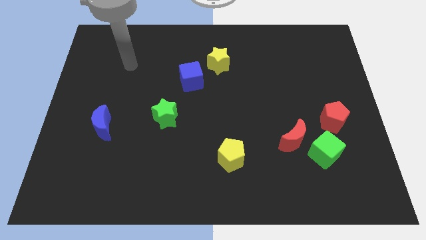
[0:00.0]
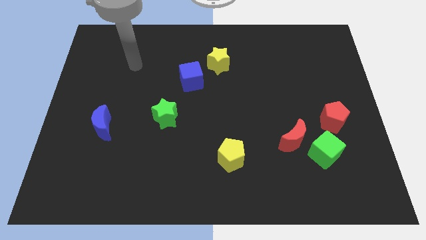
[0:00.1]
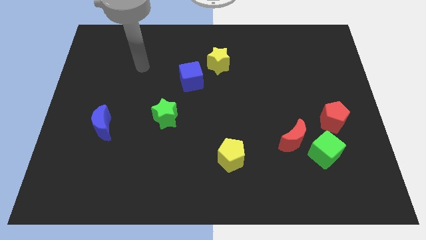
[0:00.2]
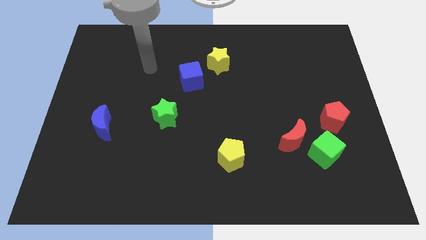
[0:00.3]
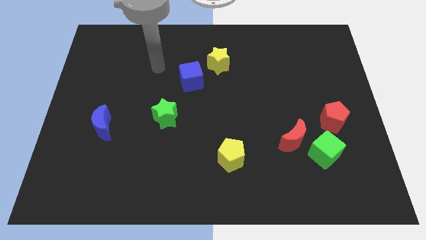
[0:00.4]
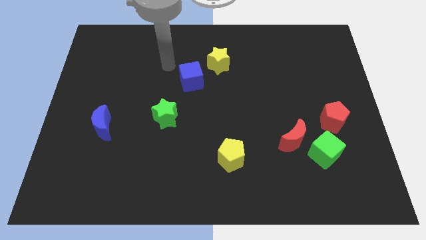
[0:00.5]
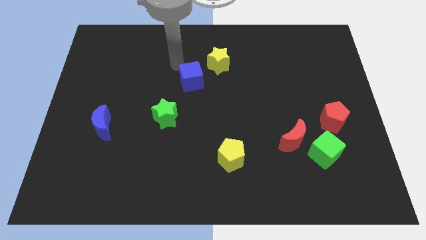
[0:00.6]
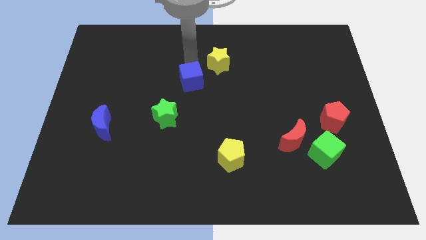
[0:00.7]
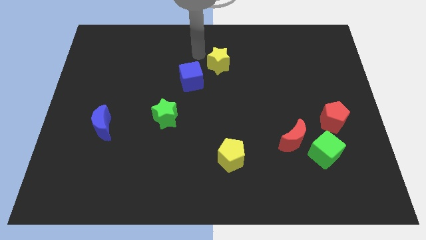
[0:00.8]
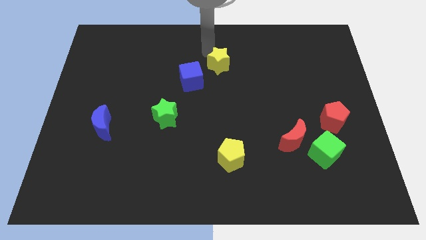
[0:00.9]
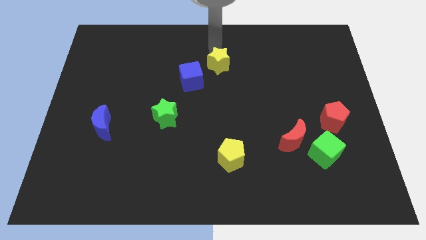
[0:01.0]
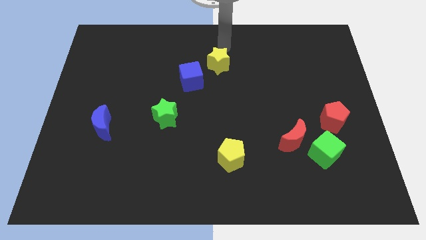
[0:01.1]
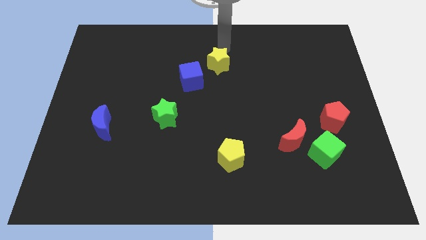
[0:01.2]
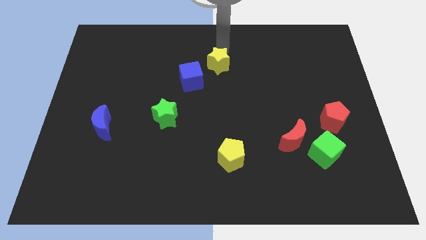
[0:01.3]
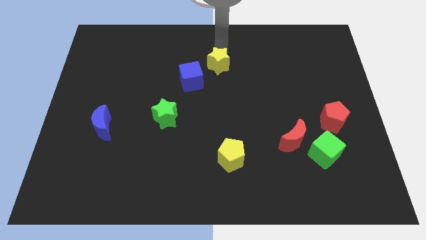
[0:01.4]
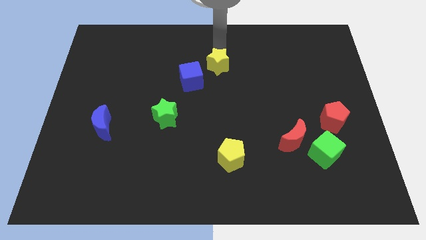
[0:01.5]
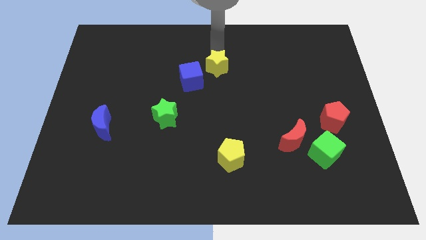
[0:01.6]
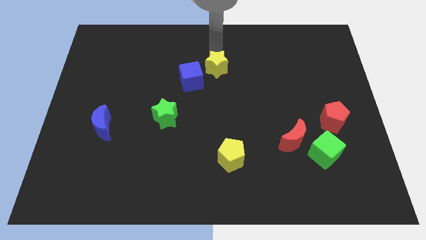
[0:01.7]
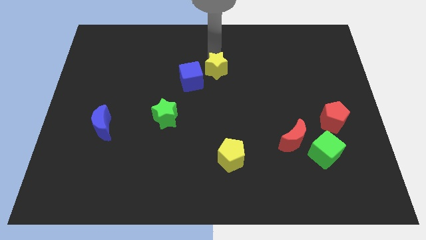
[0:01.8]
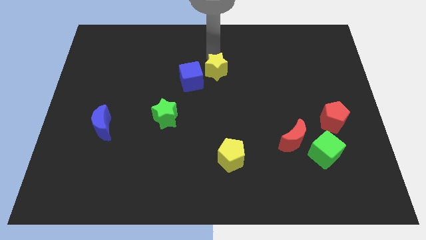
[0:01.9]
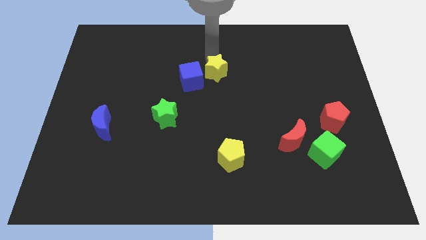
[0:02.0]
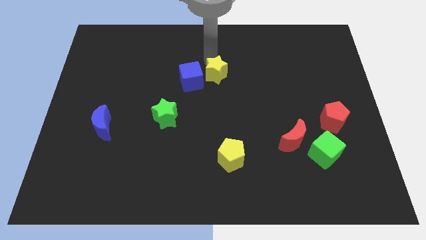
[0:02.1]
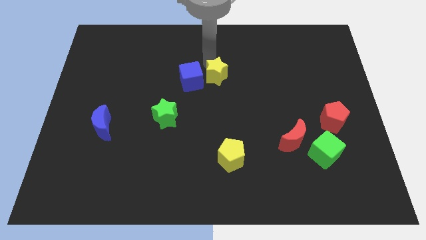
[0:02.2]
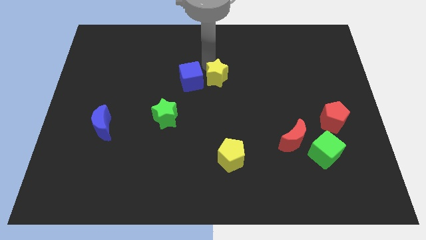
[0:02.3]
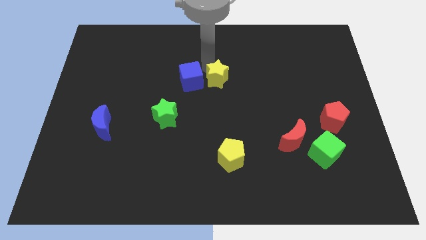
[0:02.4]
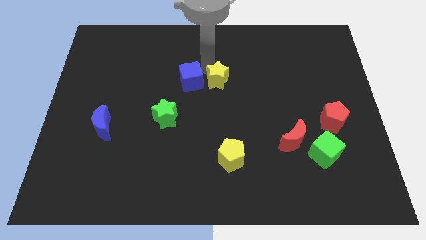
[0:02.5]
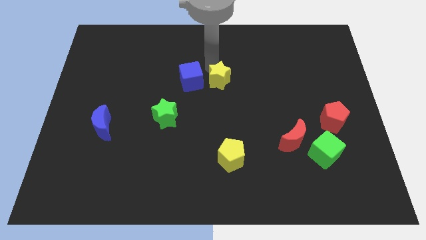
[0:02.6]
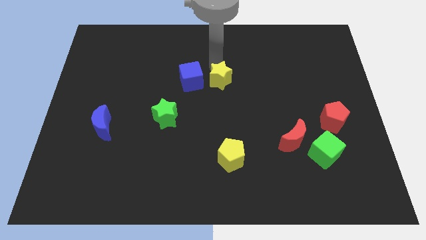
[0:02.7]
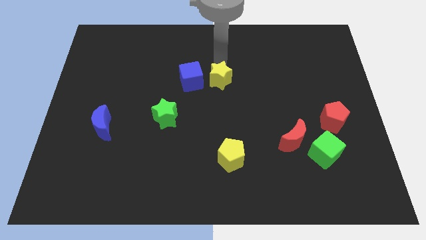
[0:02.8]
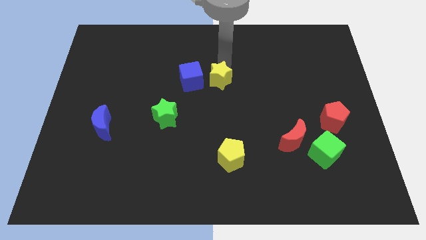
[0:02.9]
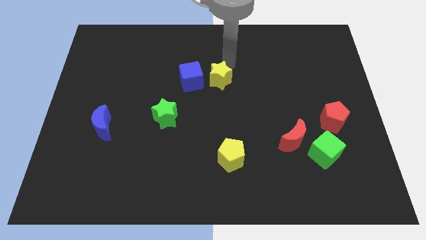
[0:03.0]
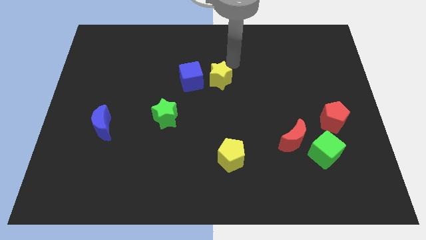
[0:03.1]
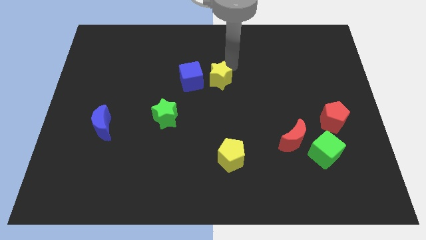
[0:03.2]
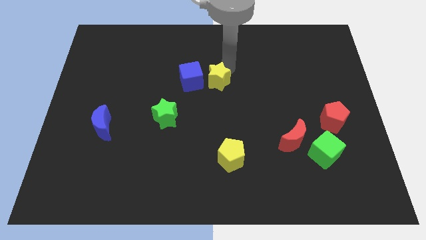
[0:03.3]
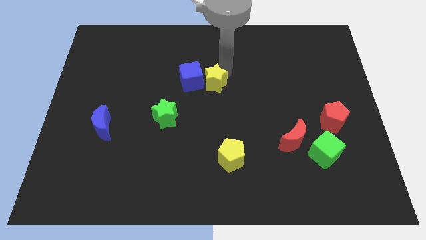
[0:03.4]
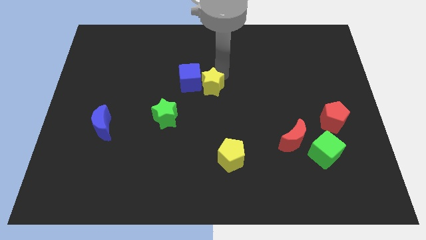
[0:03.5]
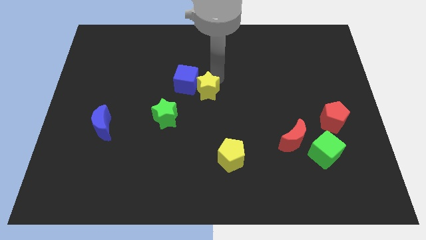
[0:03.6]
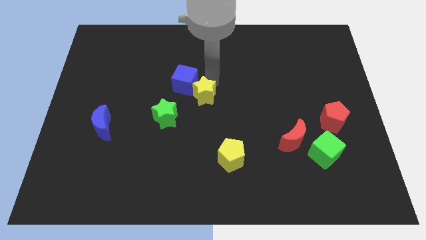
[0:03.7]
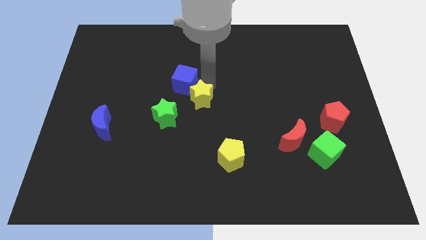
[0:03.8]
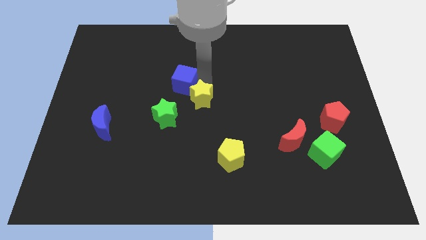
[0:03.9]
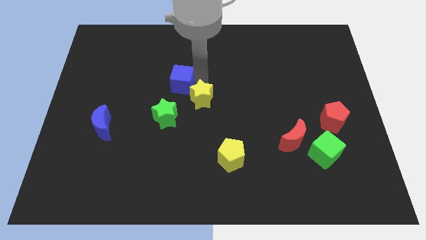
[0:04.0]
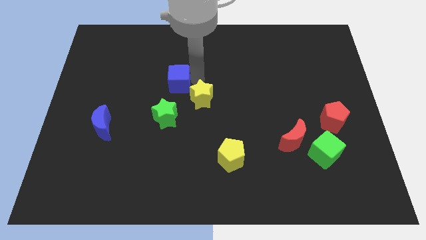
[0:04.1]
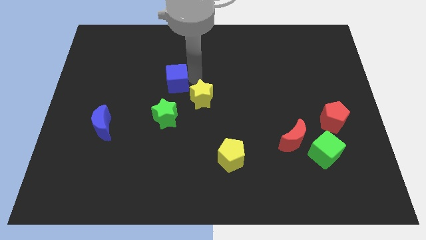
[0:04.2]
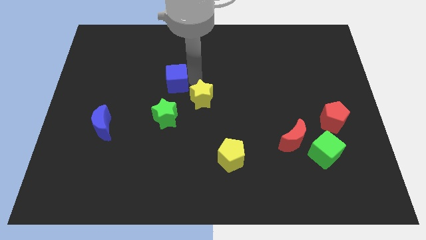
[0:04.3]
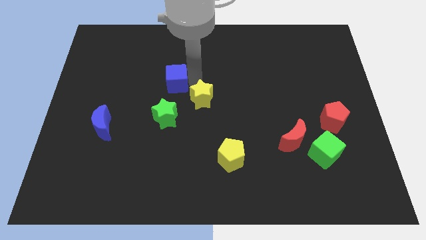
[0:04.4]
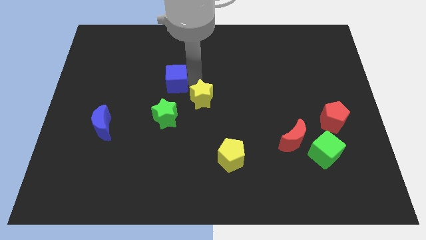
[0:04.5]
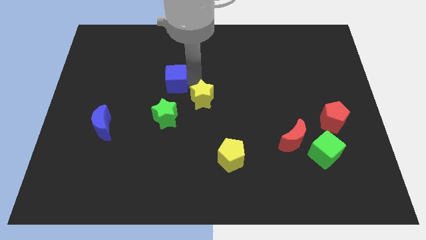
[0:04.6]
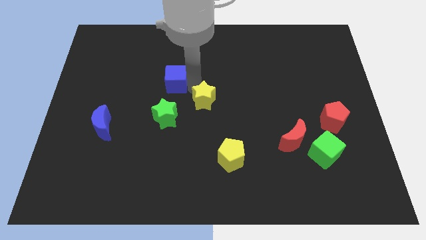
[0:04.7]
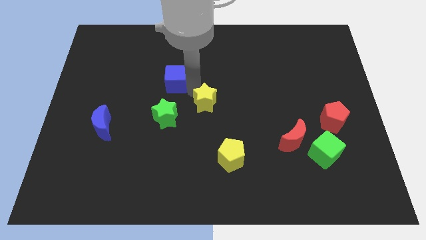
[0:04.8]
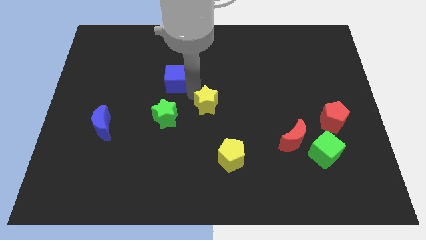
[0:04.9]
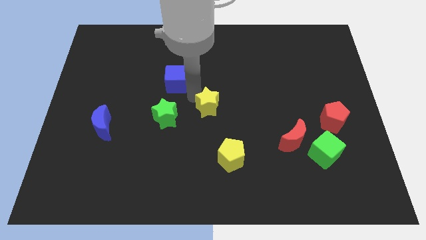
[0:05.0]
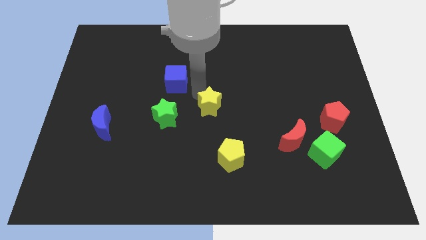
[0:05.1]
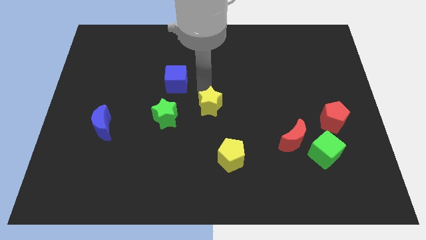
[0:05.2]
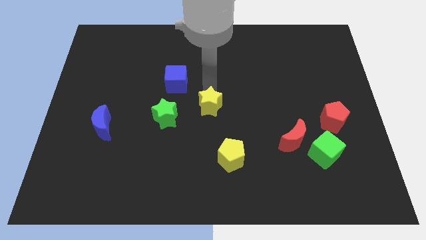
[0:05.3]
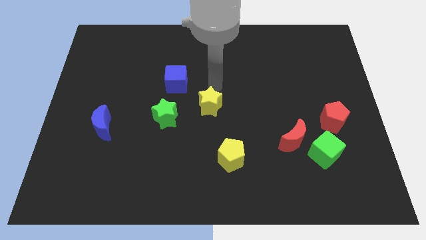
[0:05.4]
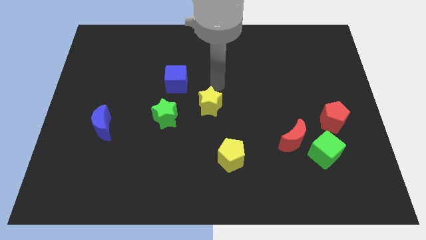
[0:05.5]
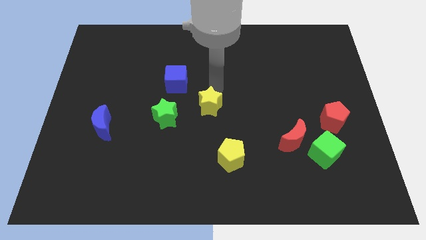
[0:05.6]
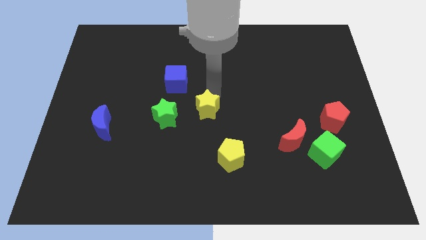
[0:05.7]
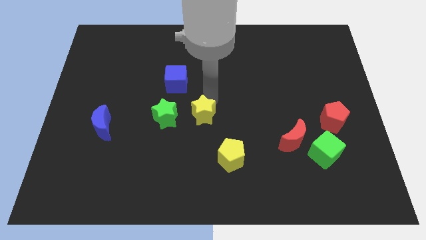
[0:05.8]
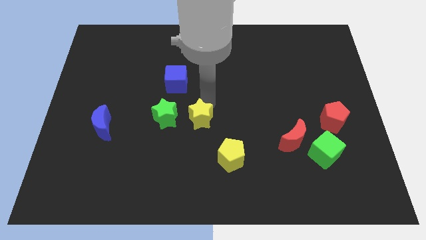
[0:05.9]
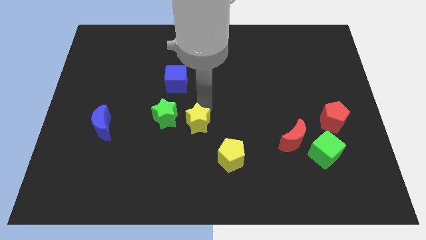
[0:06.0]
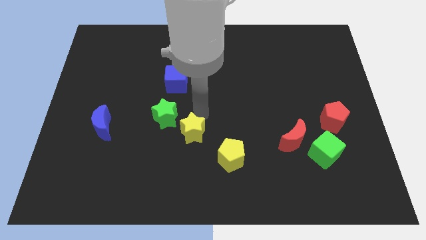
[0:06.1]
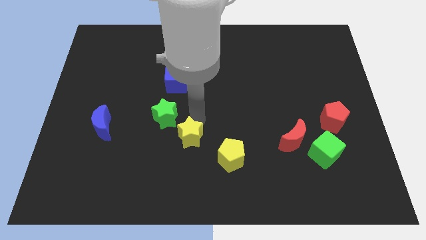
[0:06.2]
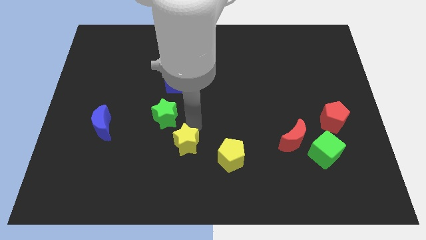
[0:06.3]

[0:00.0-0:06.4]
move the yellow star to the left side of the yellow pentagon

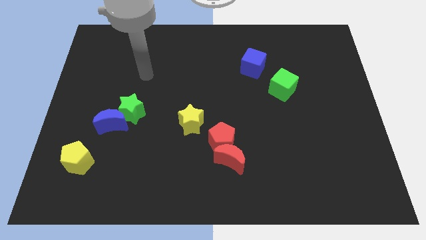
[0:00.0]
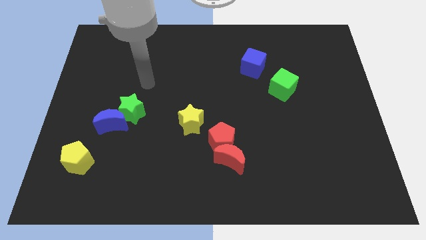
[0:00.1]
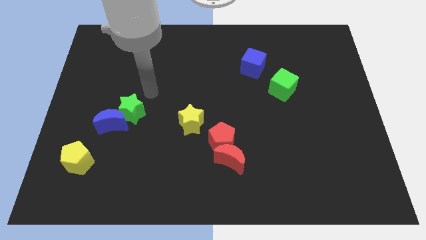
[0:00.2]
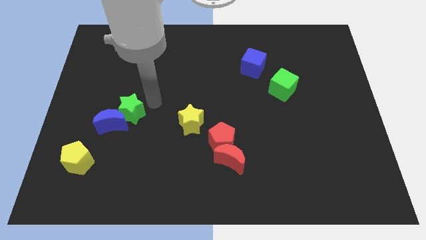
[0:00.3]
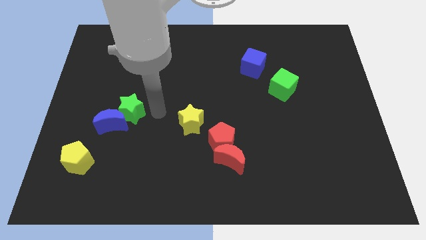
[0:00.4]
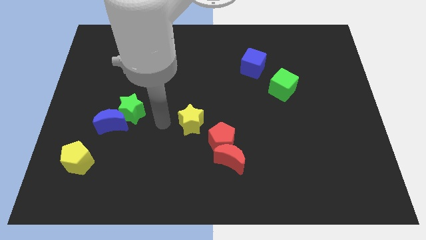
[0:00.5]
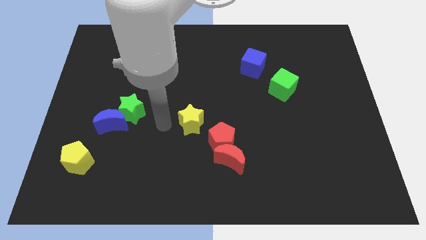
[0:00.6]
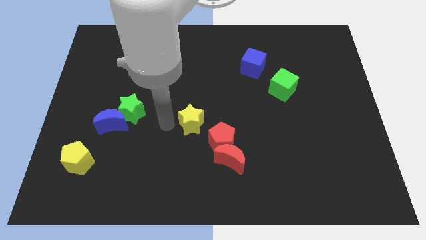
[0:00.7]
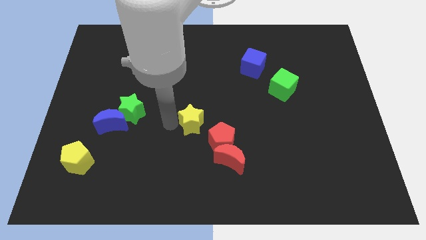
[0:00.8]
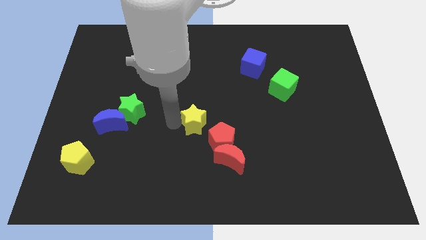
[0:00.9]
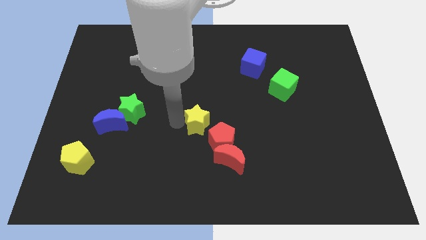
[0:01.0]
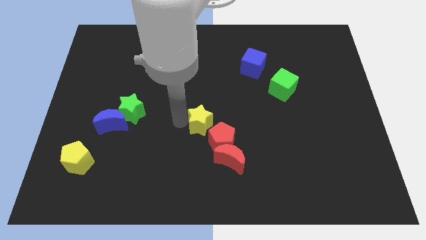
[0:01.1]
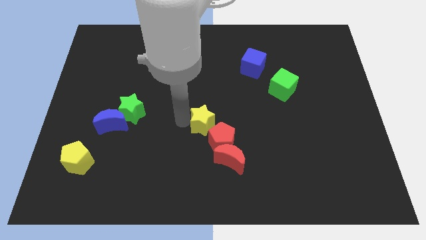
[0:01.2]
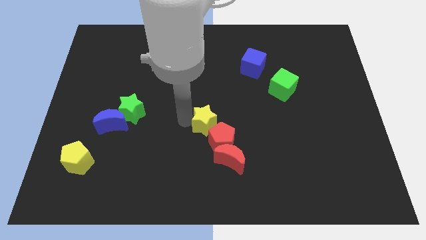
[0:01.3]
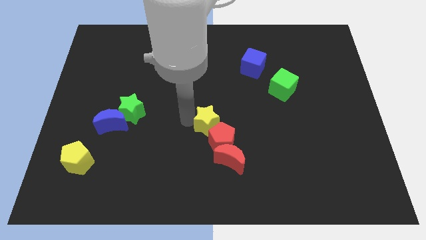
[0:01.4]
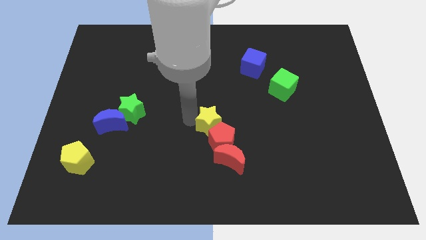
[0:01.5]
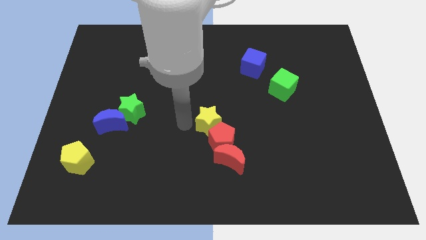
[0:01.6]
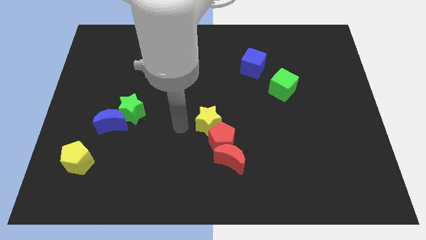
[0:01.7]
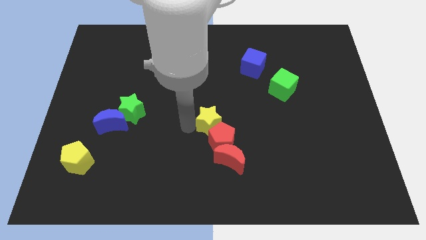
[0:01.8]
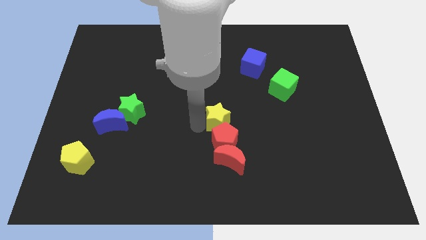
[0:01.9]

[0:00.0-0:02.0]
move the yellow star to the top right side of the red pentagon
